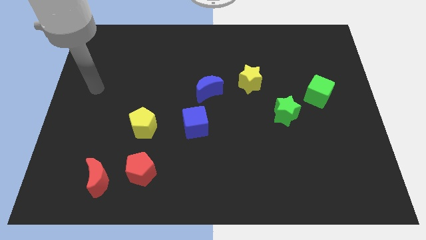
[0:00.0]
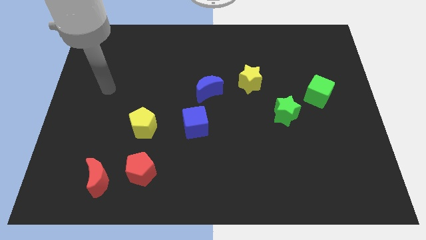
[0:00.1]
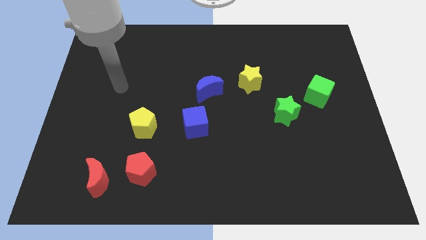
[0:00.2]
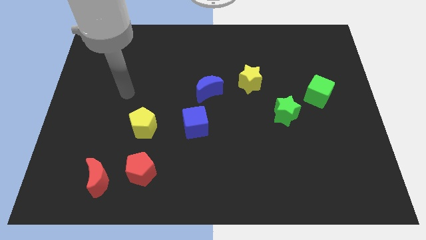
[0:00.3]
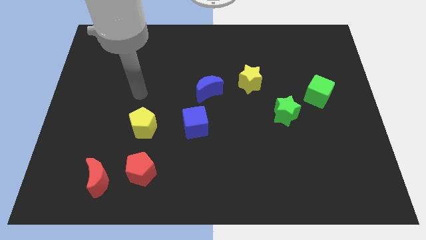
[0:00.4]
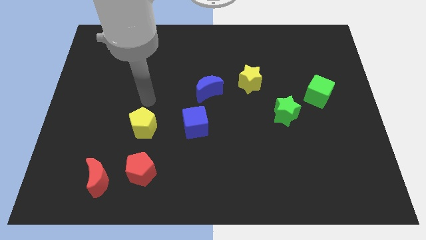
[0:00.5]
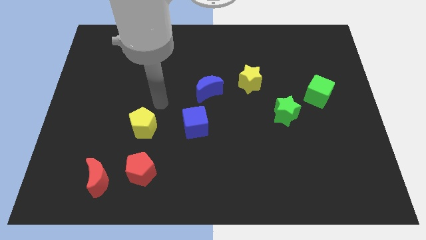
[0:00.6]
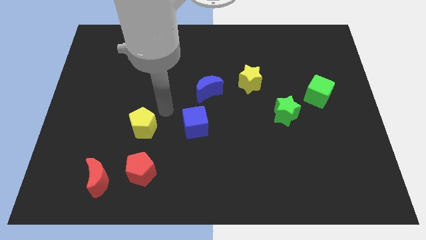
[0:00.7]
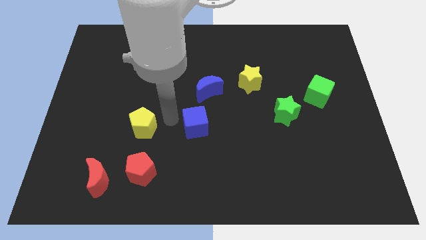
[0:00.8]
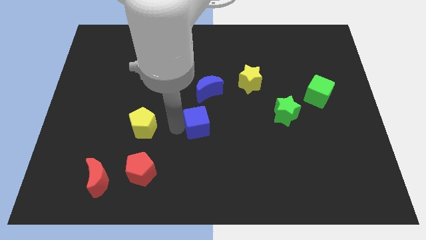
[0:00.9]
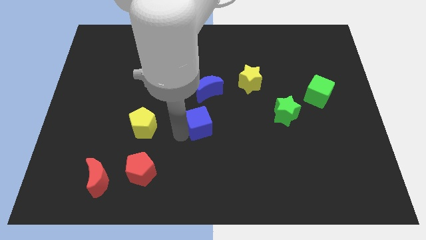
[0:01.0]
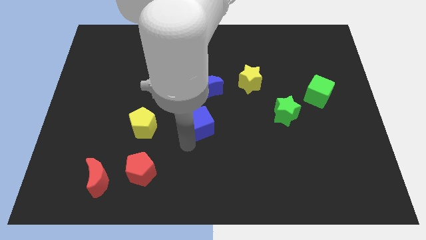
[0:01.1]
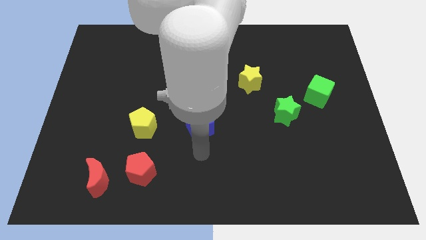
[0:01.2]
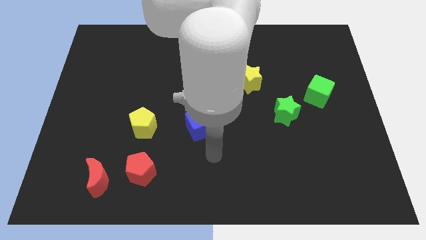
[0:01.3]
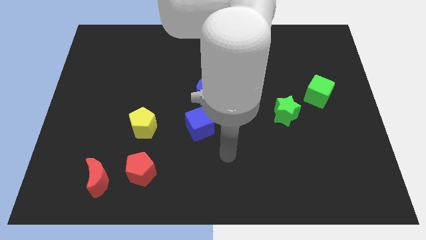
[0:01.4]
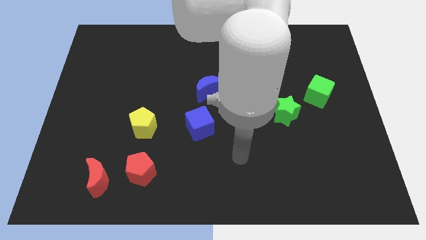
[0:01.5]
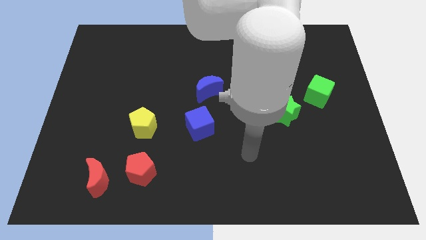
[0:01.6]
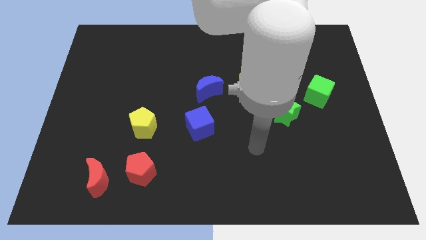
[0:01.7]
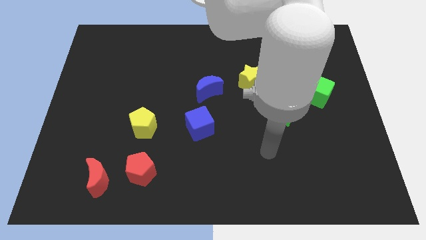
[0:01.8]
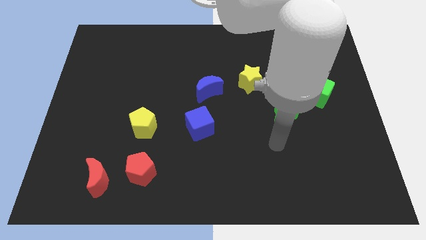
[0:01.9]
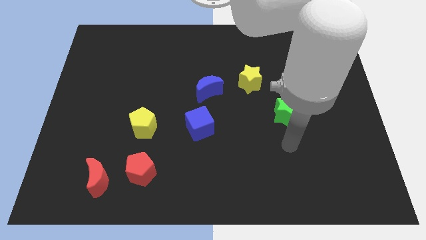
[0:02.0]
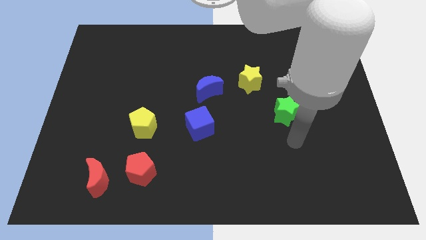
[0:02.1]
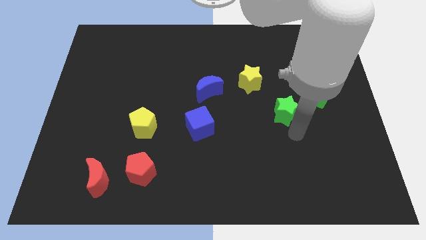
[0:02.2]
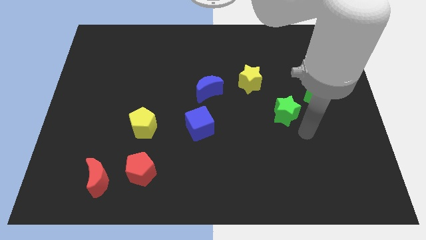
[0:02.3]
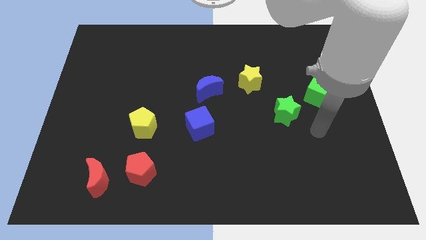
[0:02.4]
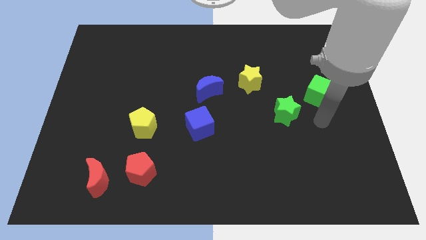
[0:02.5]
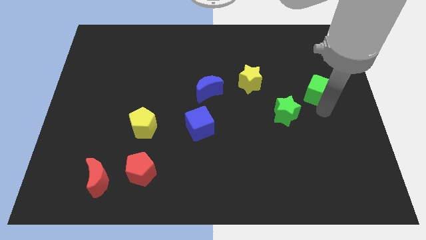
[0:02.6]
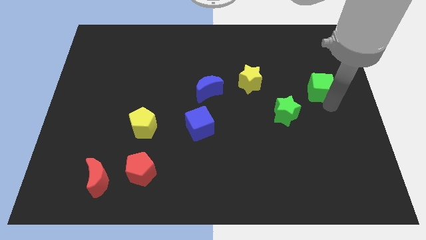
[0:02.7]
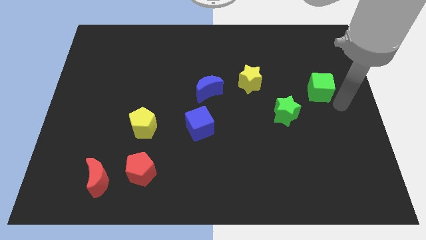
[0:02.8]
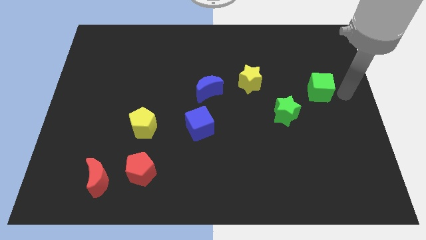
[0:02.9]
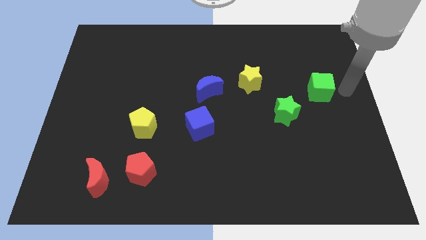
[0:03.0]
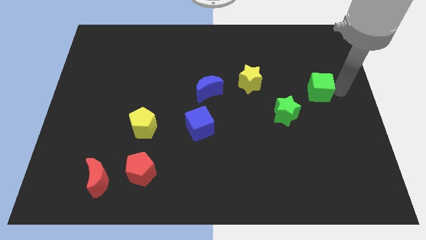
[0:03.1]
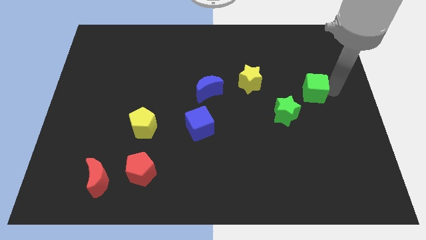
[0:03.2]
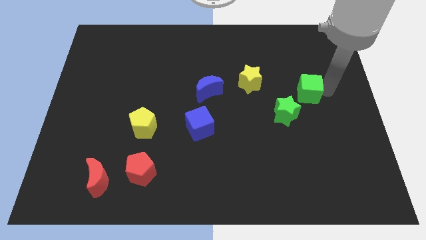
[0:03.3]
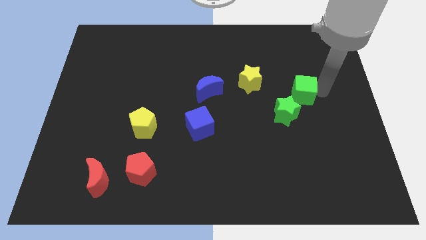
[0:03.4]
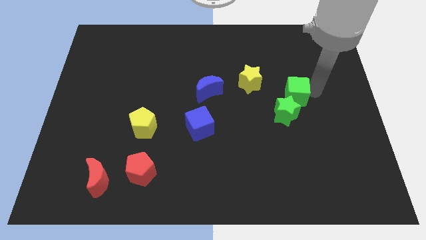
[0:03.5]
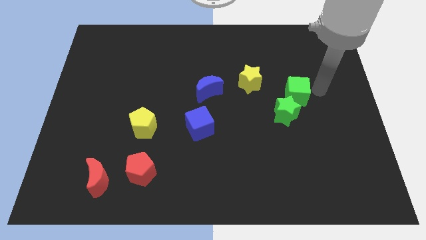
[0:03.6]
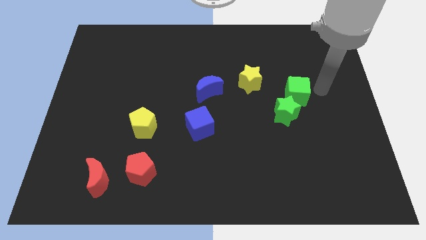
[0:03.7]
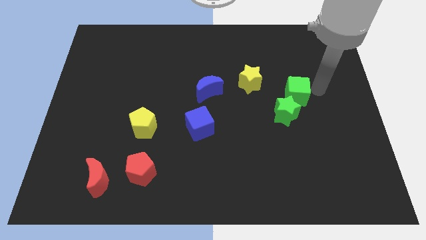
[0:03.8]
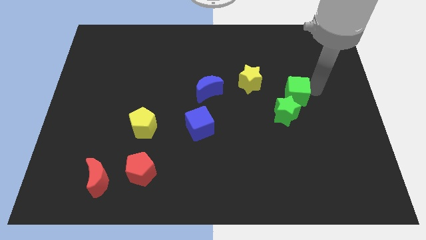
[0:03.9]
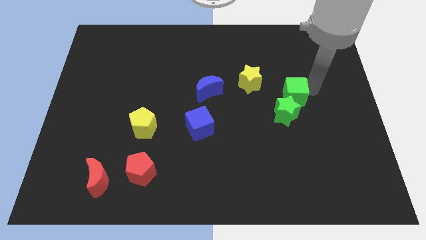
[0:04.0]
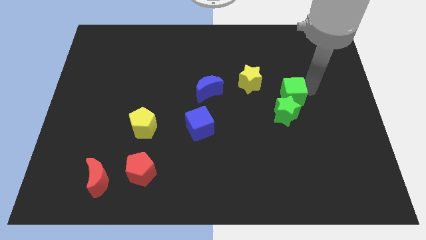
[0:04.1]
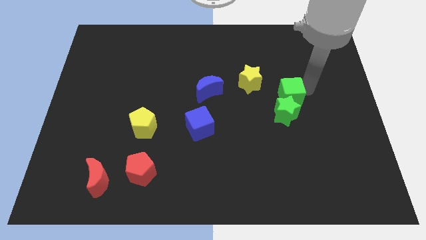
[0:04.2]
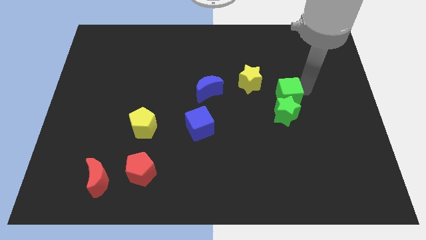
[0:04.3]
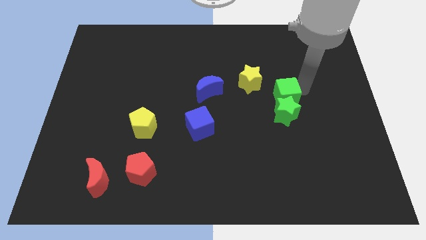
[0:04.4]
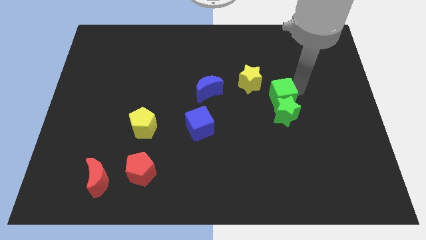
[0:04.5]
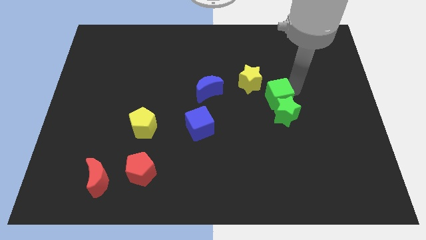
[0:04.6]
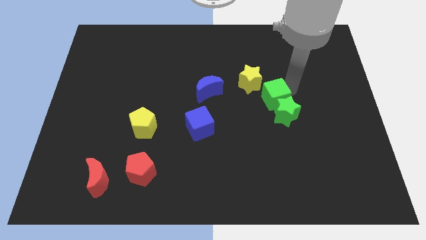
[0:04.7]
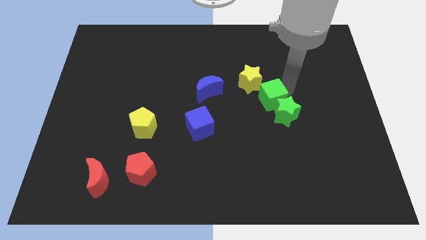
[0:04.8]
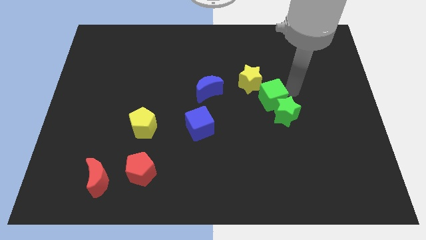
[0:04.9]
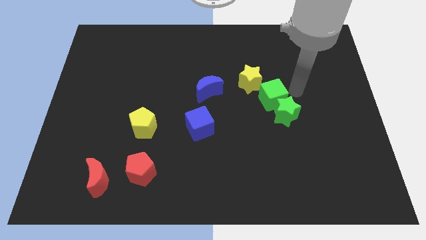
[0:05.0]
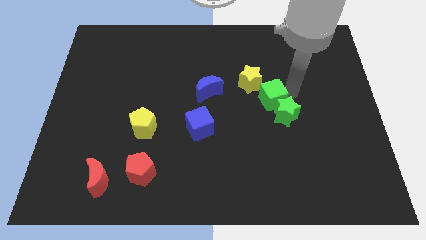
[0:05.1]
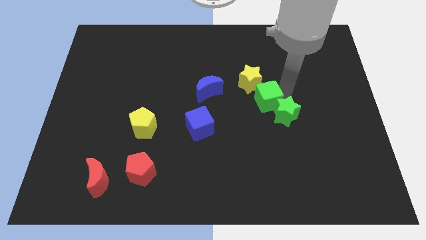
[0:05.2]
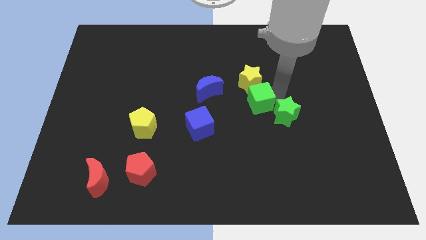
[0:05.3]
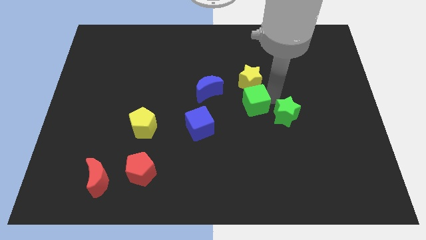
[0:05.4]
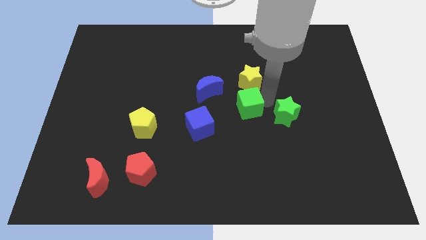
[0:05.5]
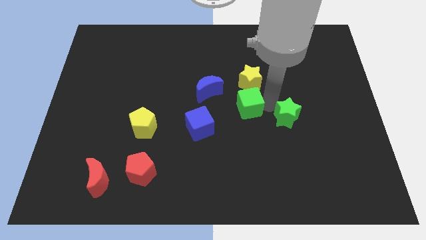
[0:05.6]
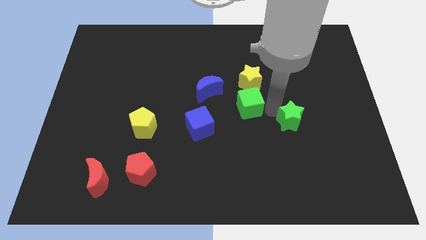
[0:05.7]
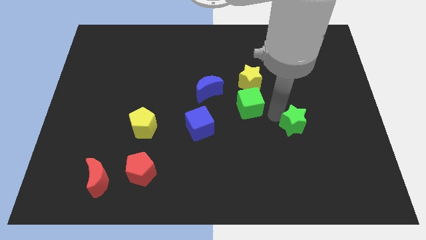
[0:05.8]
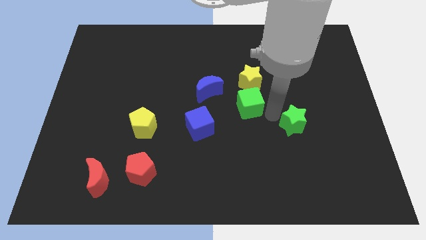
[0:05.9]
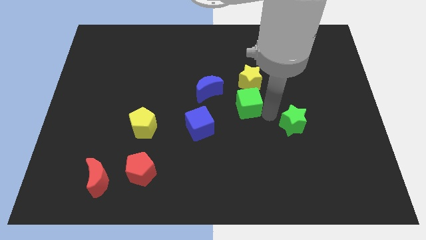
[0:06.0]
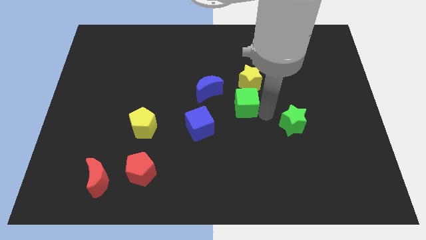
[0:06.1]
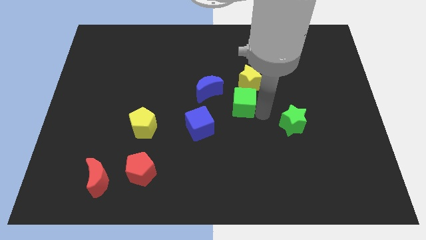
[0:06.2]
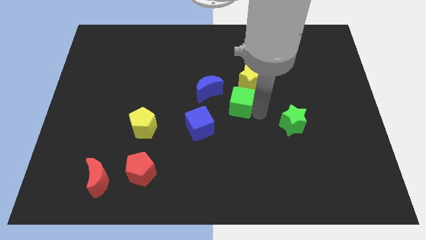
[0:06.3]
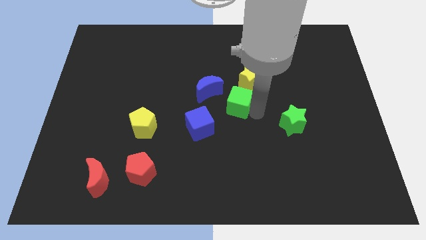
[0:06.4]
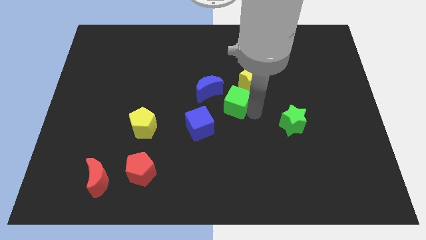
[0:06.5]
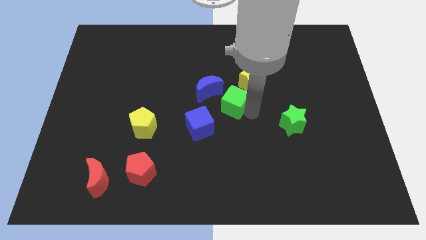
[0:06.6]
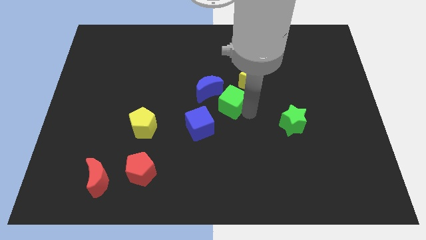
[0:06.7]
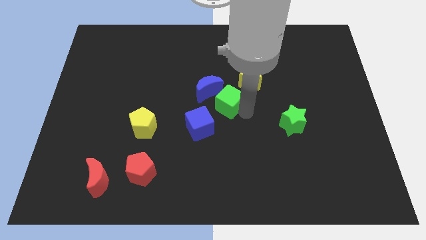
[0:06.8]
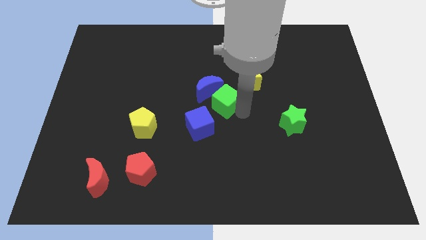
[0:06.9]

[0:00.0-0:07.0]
move the green cube towards the blue moon
